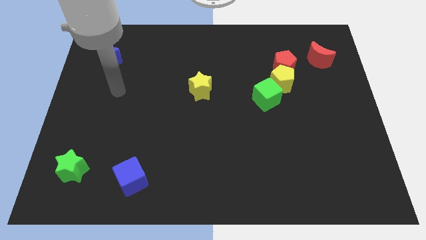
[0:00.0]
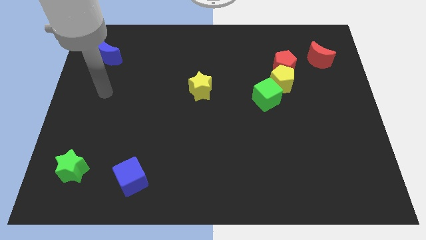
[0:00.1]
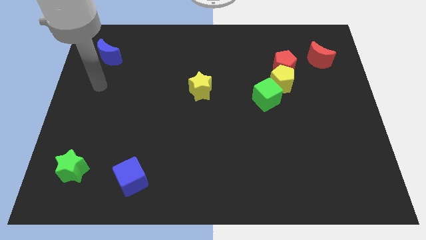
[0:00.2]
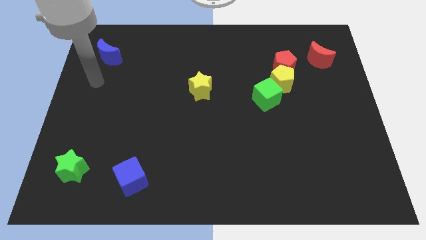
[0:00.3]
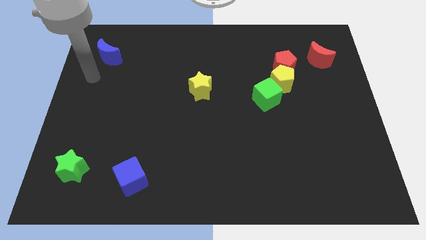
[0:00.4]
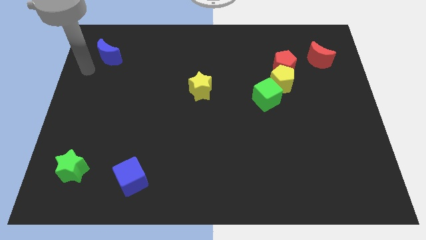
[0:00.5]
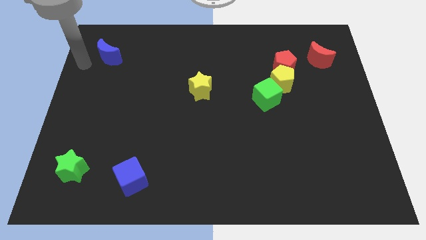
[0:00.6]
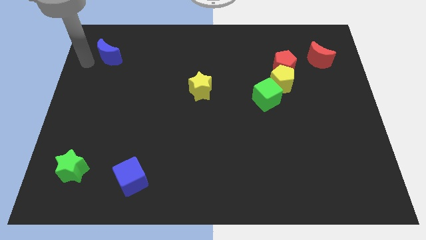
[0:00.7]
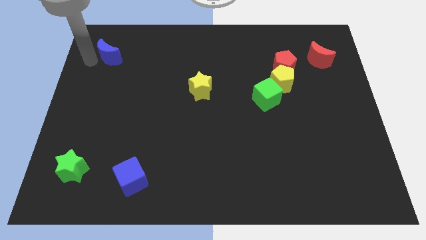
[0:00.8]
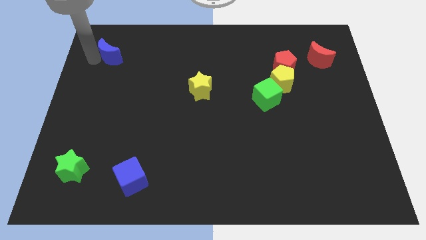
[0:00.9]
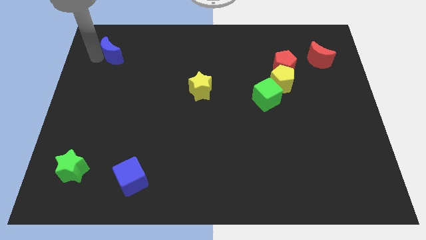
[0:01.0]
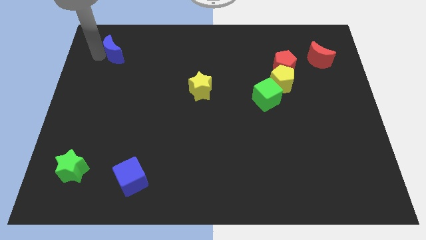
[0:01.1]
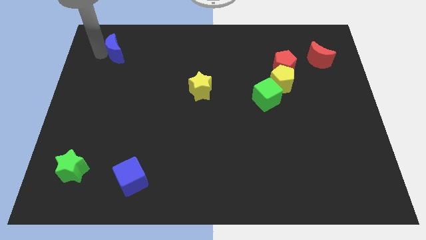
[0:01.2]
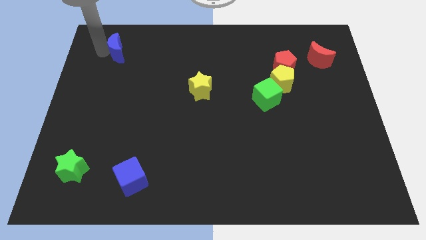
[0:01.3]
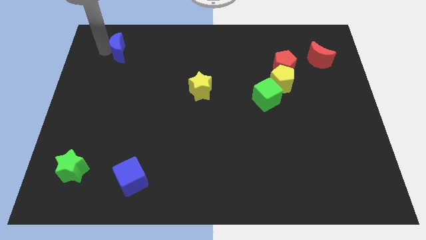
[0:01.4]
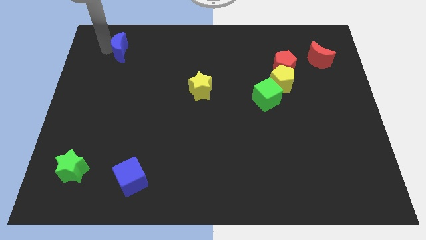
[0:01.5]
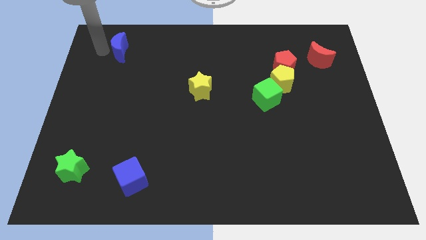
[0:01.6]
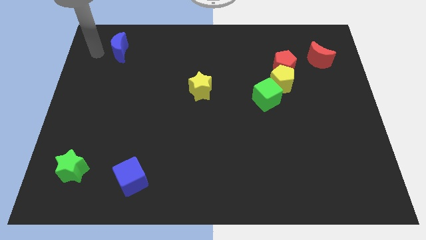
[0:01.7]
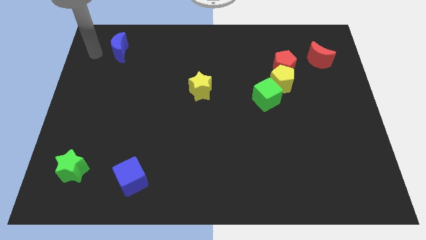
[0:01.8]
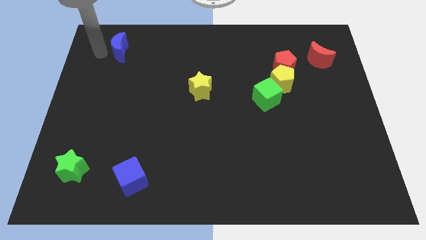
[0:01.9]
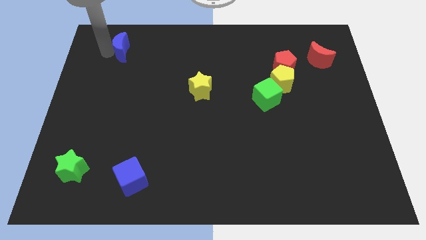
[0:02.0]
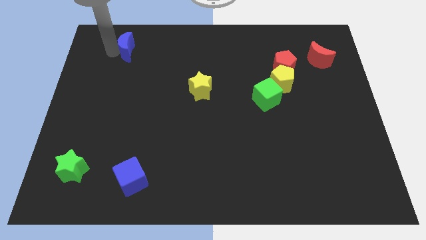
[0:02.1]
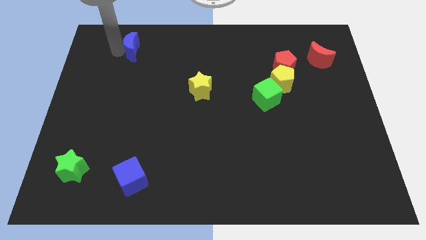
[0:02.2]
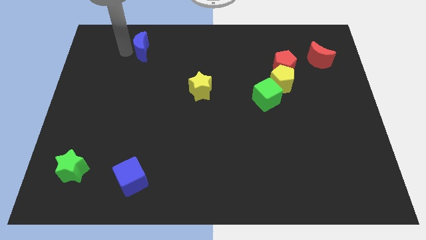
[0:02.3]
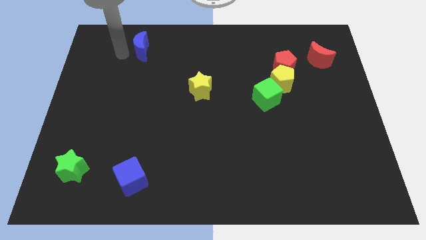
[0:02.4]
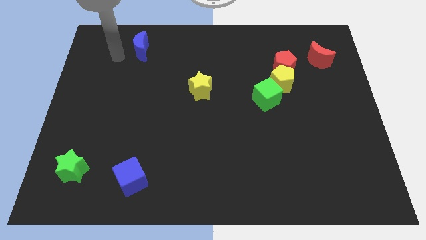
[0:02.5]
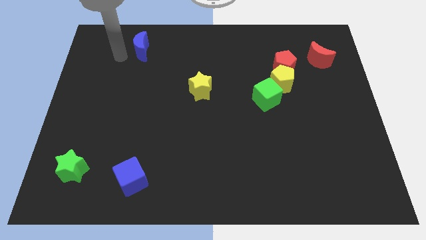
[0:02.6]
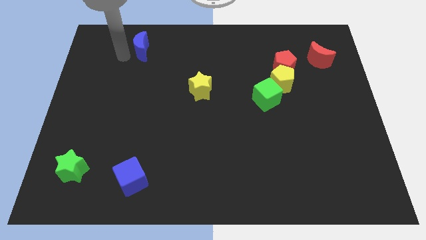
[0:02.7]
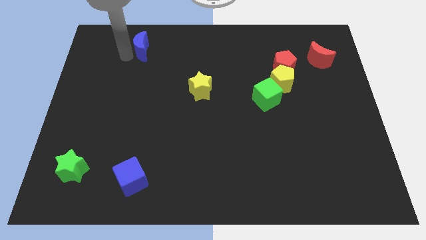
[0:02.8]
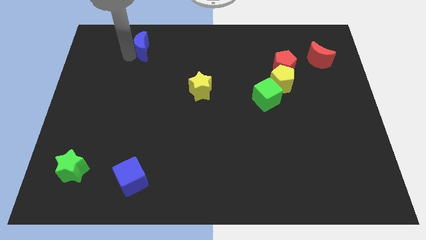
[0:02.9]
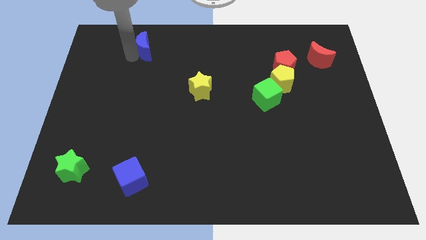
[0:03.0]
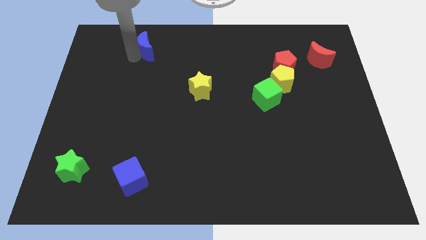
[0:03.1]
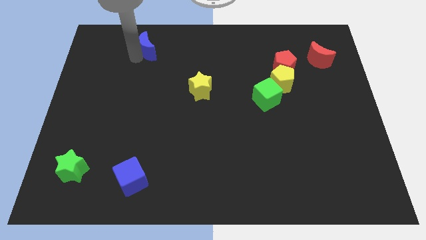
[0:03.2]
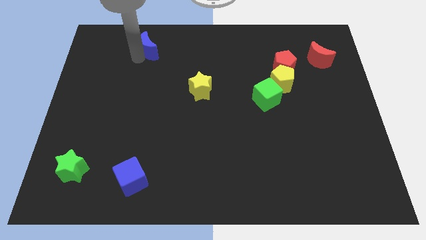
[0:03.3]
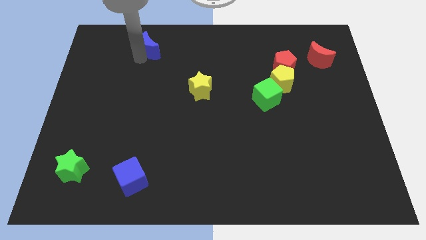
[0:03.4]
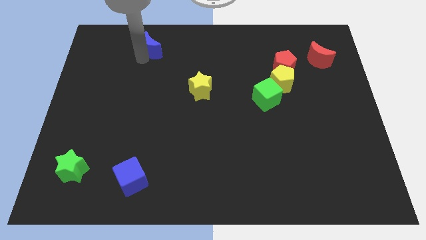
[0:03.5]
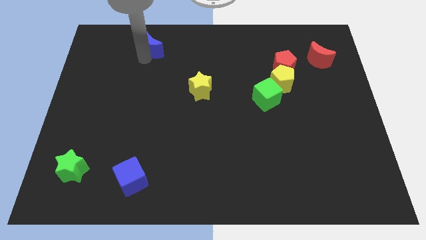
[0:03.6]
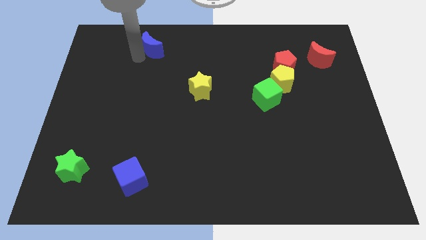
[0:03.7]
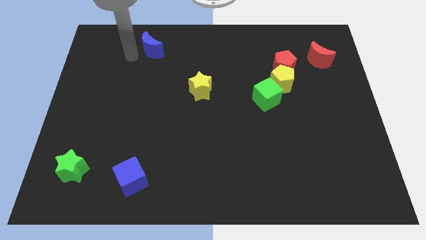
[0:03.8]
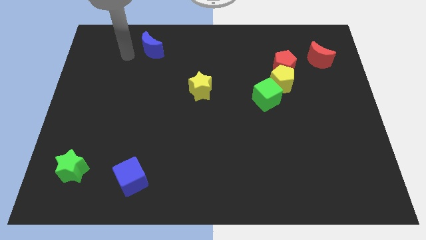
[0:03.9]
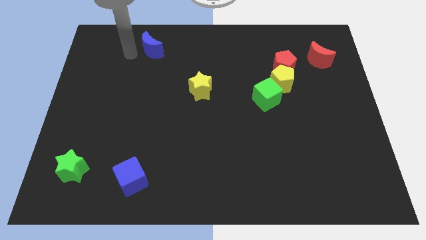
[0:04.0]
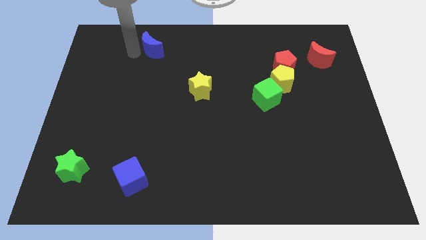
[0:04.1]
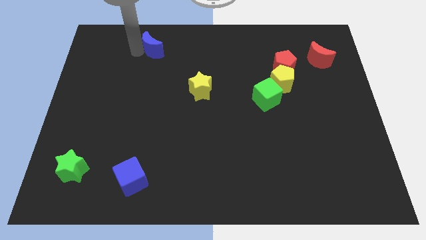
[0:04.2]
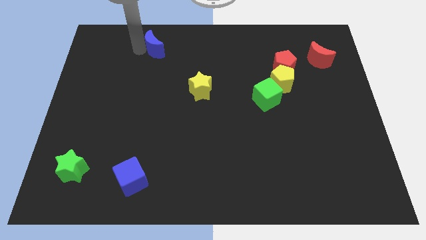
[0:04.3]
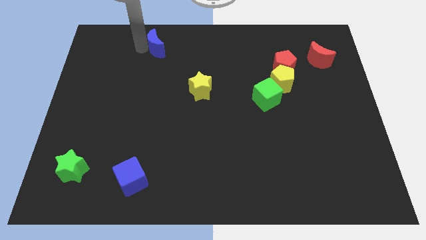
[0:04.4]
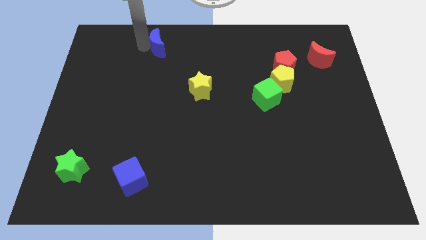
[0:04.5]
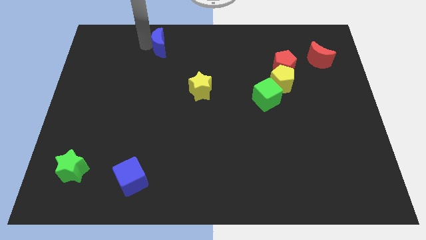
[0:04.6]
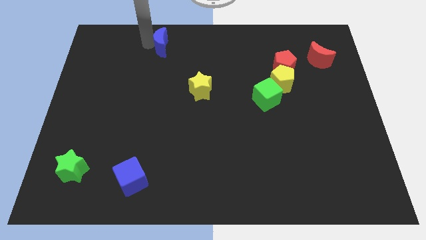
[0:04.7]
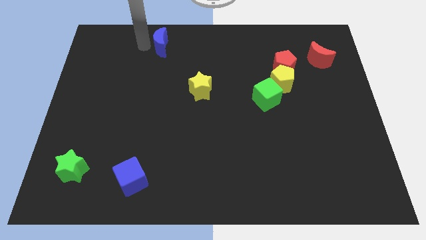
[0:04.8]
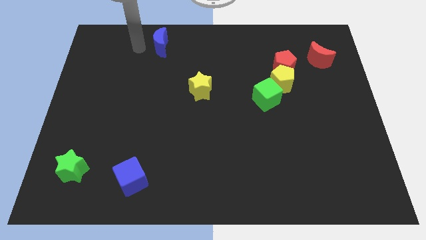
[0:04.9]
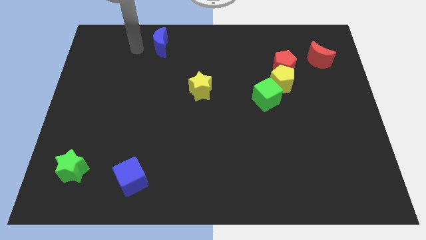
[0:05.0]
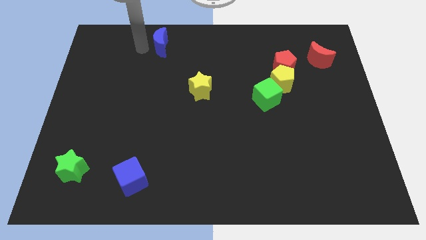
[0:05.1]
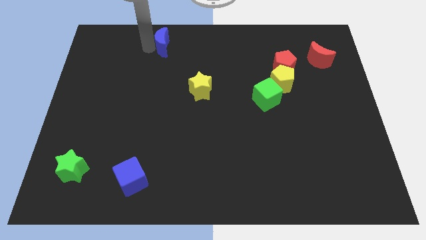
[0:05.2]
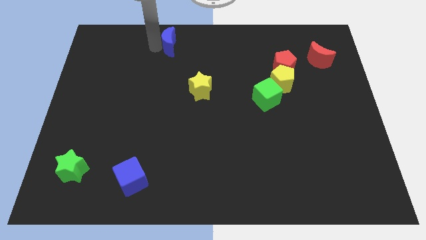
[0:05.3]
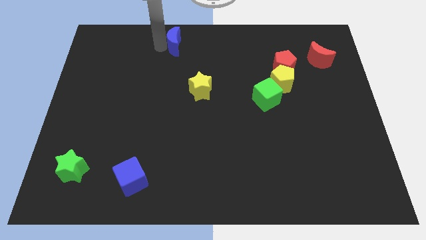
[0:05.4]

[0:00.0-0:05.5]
move the blue moon to the top side

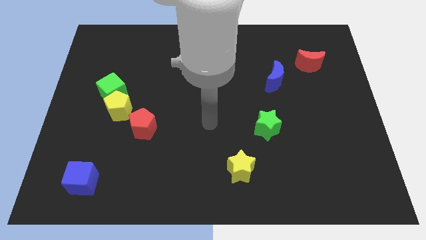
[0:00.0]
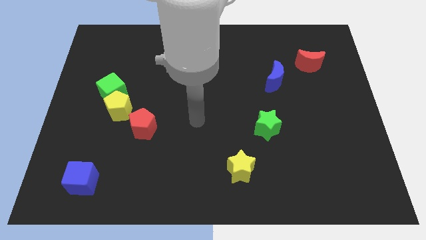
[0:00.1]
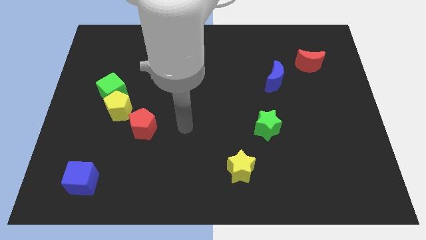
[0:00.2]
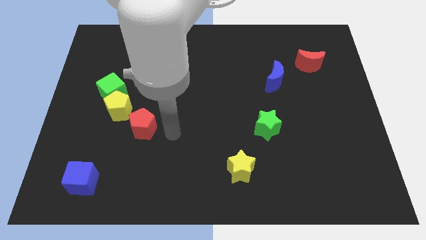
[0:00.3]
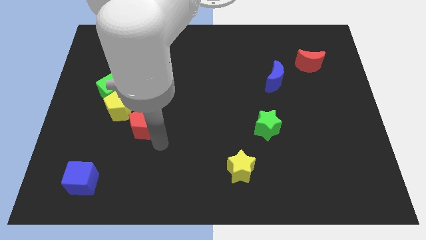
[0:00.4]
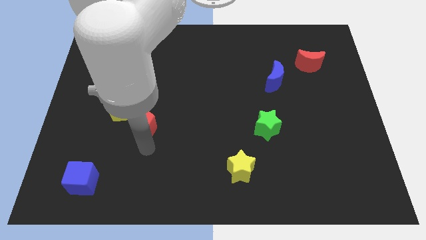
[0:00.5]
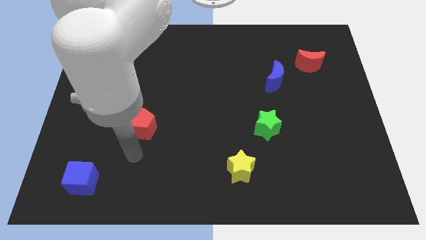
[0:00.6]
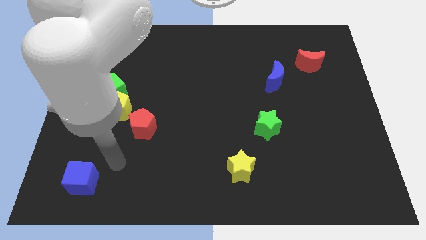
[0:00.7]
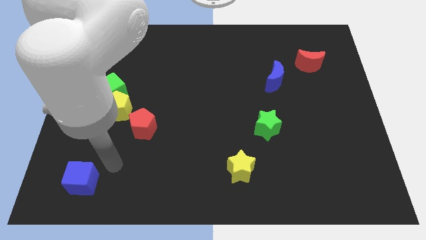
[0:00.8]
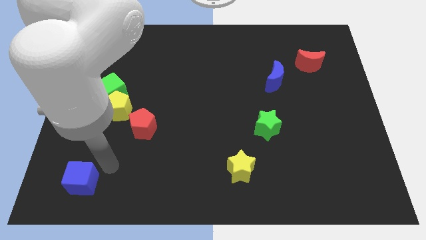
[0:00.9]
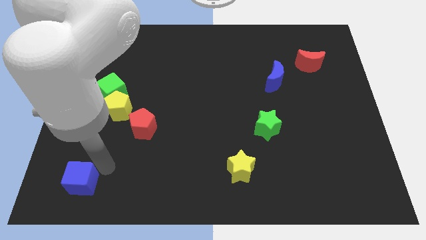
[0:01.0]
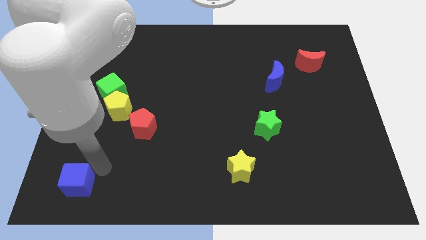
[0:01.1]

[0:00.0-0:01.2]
slide the blue cube to the bottom left of the board
